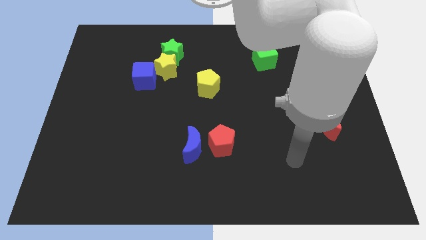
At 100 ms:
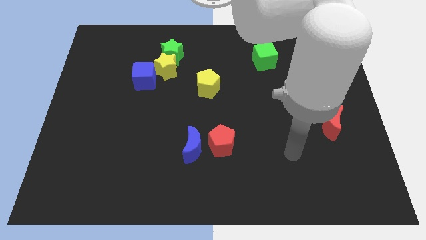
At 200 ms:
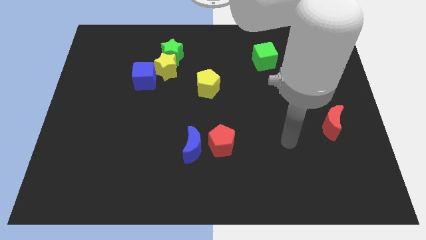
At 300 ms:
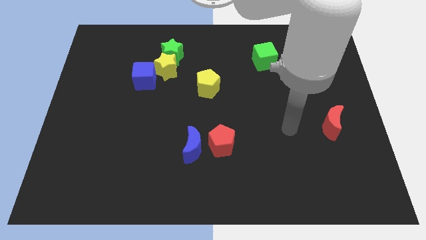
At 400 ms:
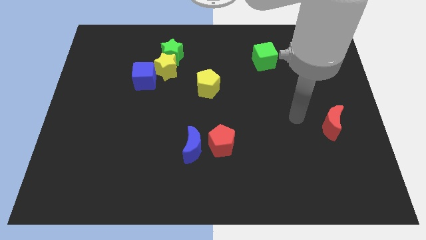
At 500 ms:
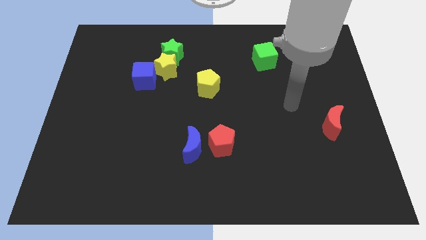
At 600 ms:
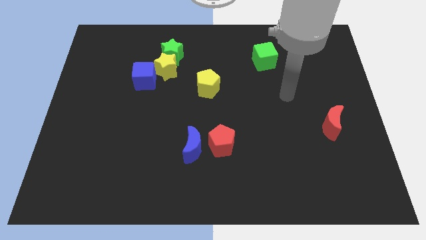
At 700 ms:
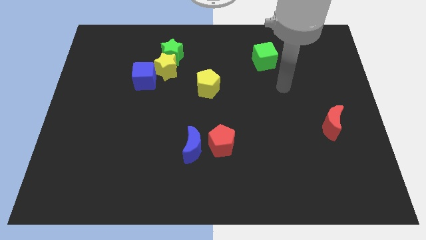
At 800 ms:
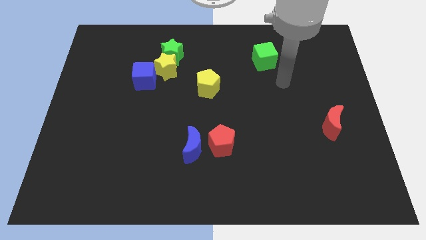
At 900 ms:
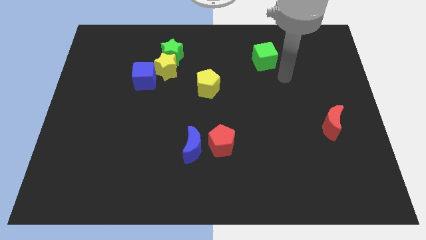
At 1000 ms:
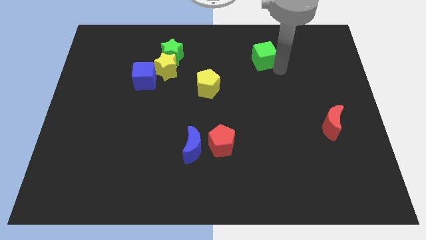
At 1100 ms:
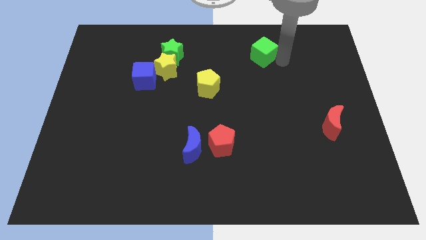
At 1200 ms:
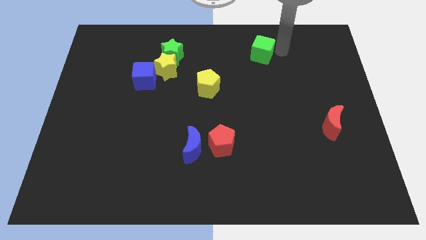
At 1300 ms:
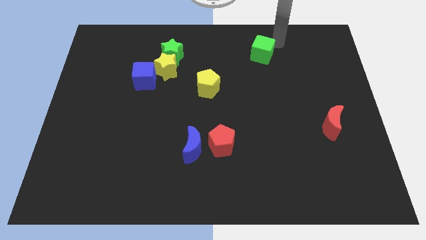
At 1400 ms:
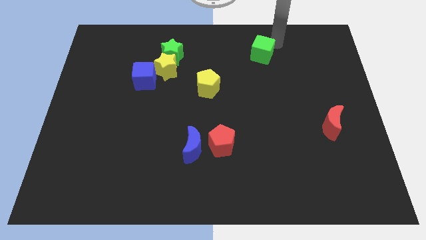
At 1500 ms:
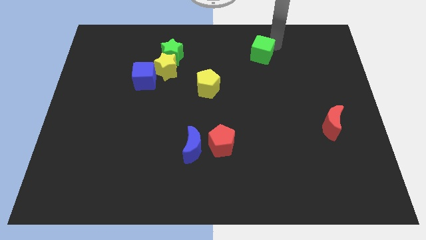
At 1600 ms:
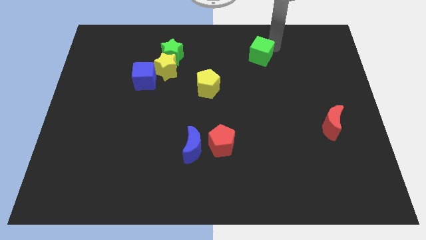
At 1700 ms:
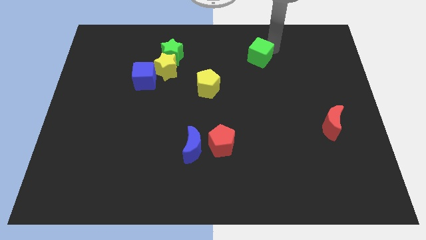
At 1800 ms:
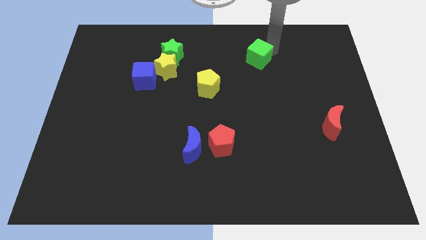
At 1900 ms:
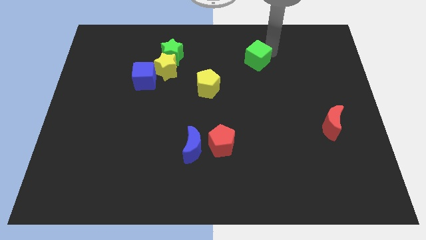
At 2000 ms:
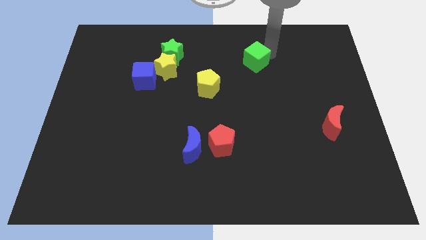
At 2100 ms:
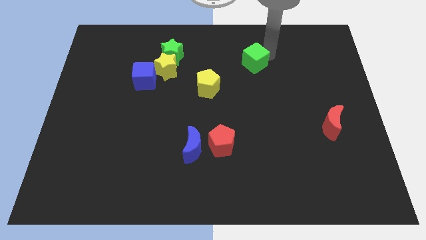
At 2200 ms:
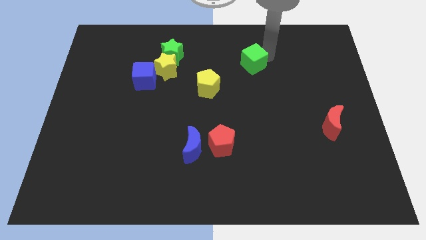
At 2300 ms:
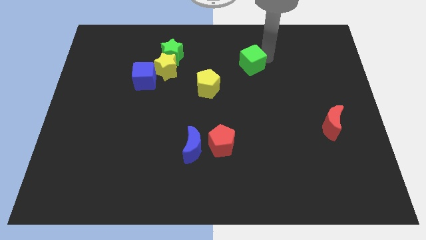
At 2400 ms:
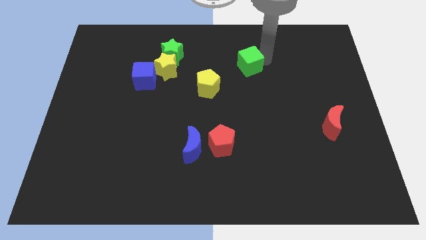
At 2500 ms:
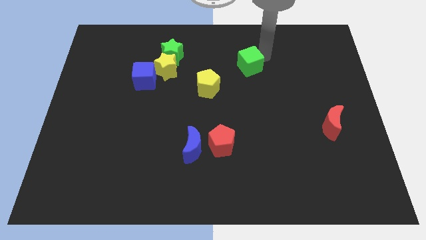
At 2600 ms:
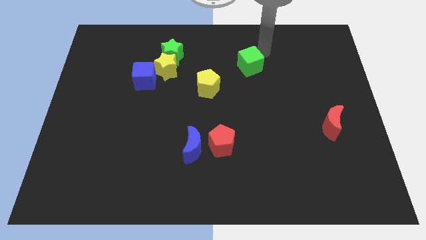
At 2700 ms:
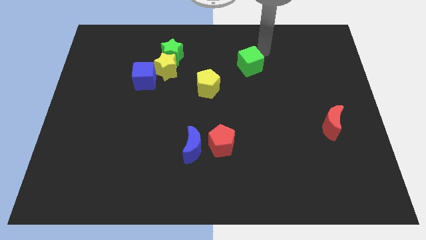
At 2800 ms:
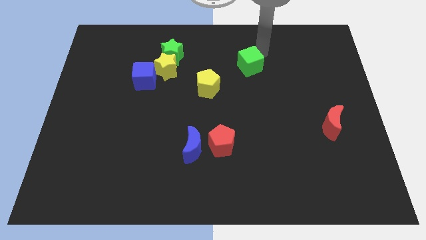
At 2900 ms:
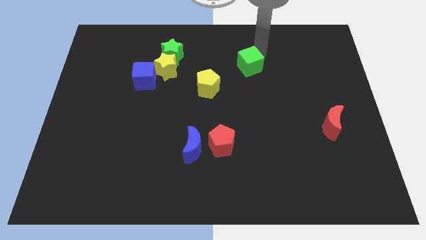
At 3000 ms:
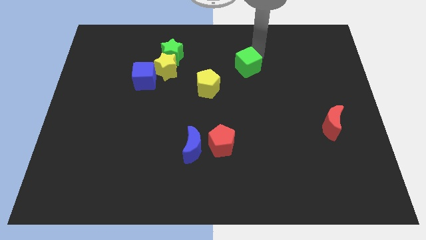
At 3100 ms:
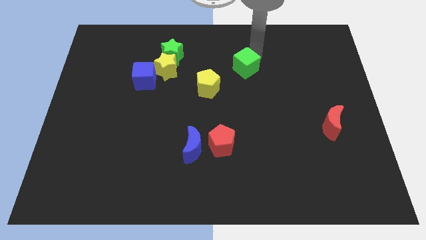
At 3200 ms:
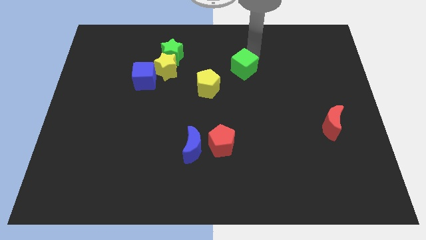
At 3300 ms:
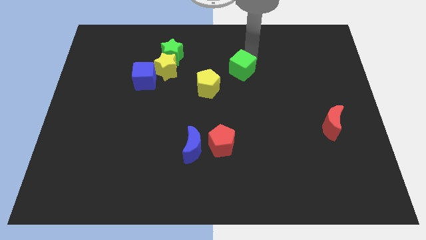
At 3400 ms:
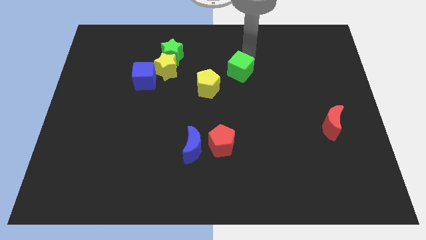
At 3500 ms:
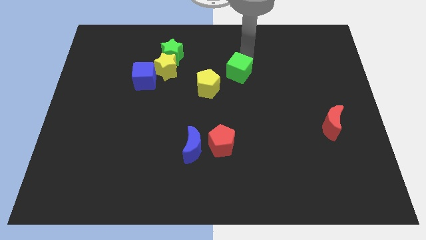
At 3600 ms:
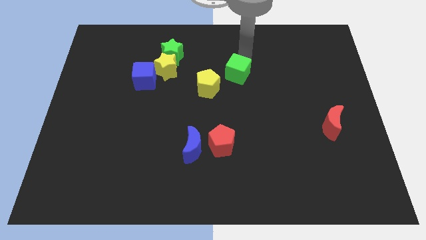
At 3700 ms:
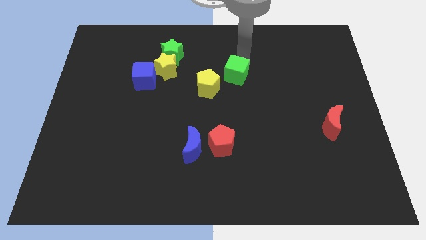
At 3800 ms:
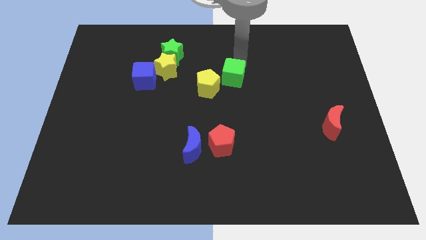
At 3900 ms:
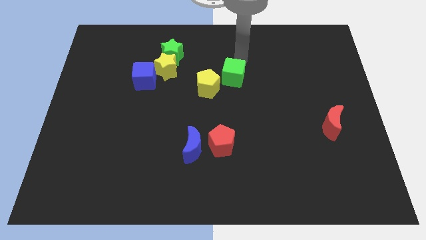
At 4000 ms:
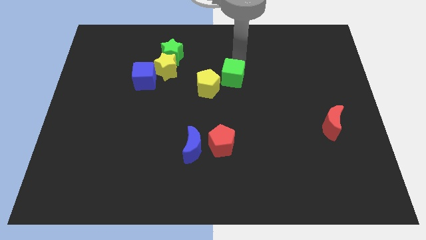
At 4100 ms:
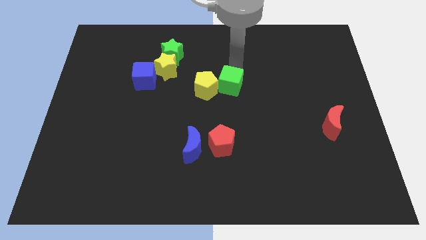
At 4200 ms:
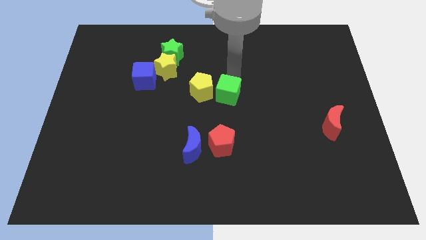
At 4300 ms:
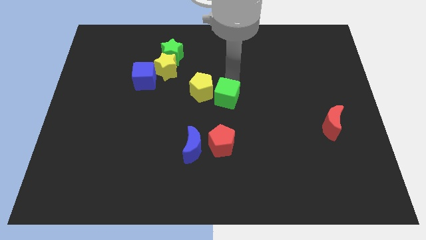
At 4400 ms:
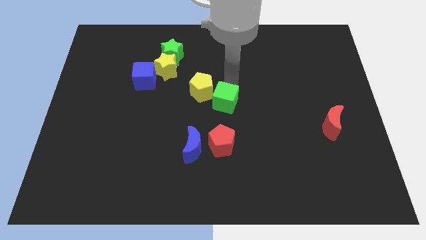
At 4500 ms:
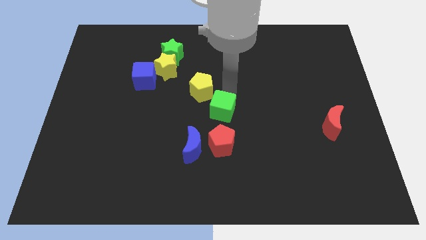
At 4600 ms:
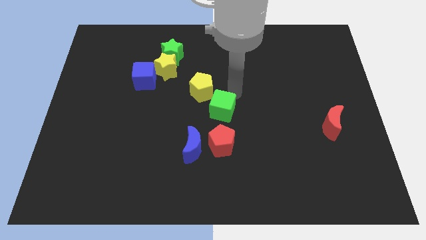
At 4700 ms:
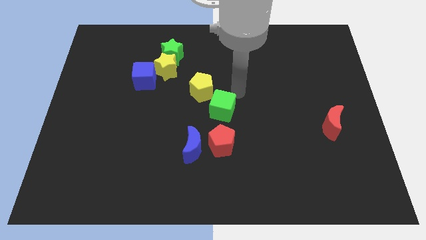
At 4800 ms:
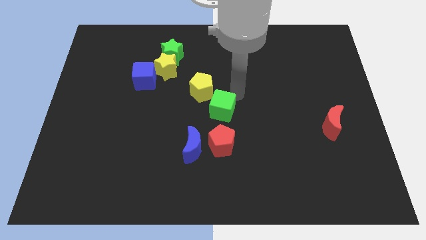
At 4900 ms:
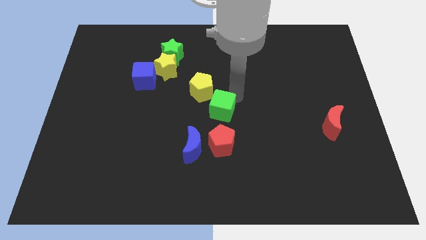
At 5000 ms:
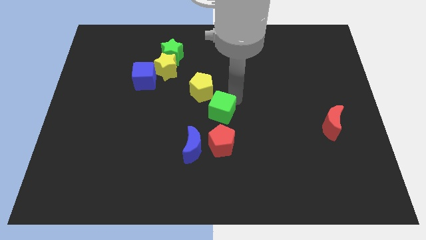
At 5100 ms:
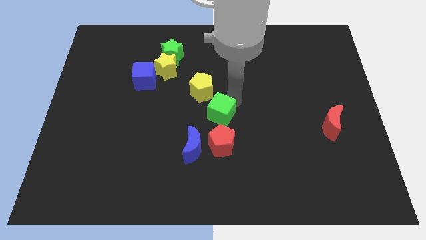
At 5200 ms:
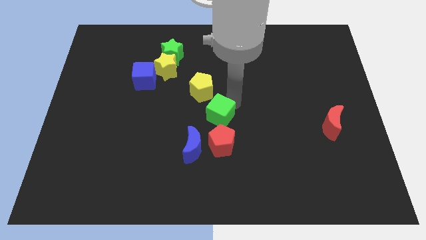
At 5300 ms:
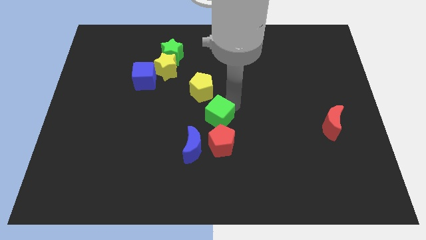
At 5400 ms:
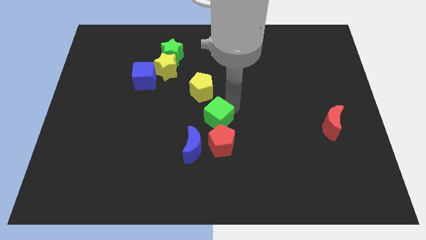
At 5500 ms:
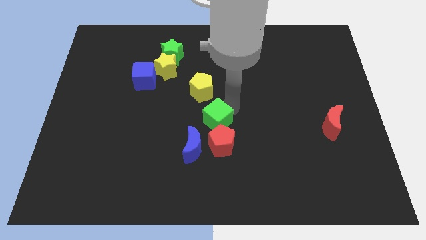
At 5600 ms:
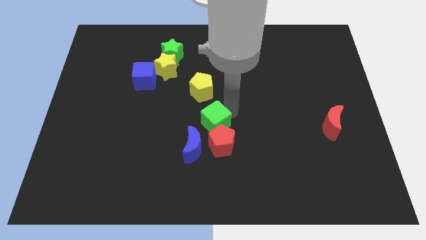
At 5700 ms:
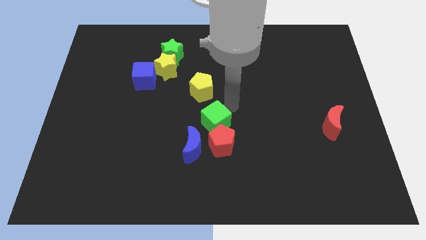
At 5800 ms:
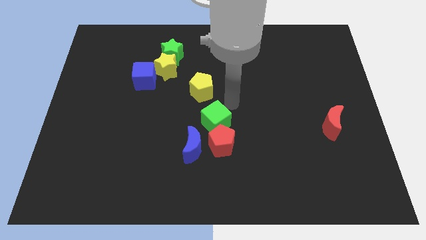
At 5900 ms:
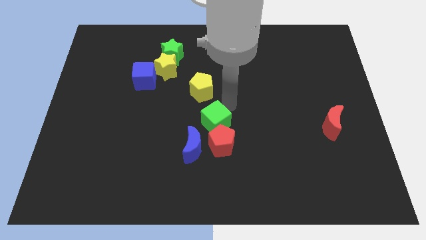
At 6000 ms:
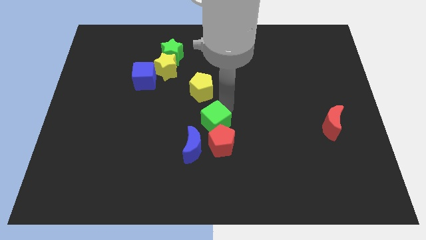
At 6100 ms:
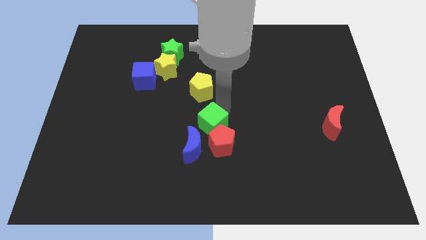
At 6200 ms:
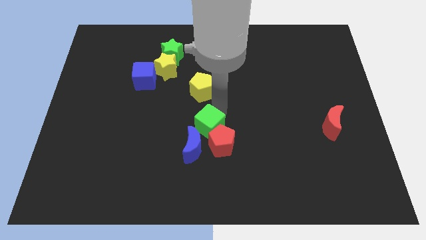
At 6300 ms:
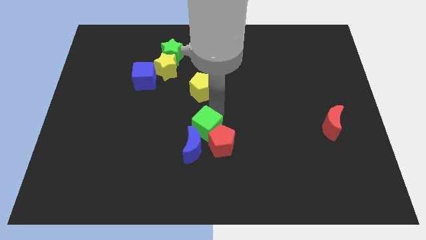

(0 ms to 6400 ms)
push the green cube to the blue moon

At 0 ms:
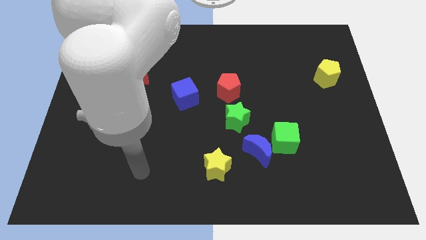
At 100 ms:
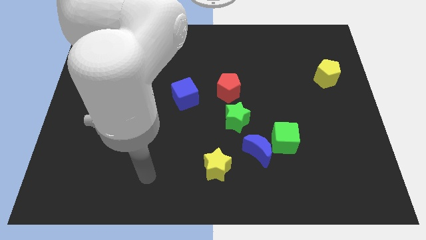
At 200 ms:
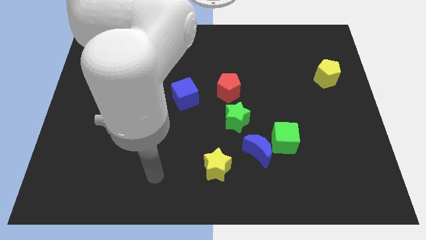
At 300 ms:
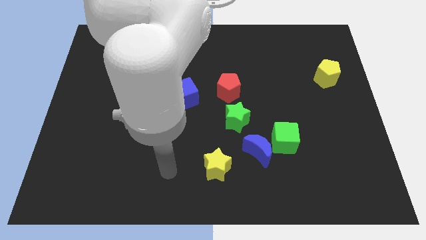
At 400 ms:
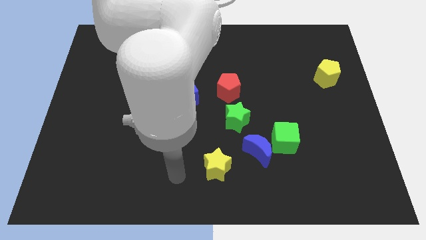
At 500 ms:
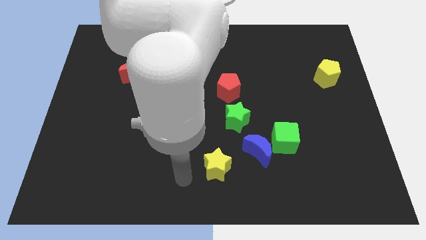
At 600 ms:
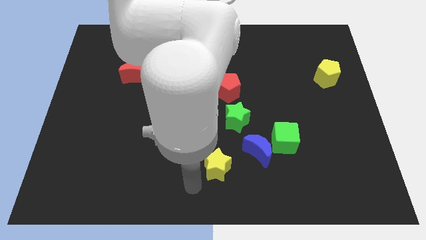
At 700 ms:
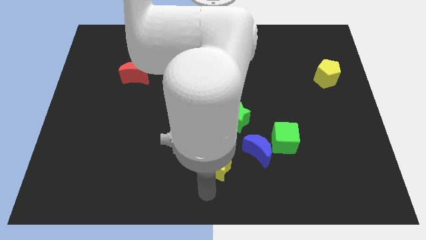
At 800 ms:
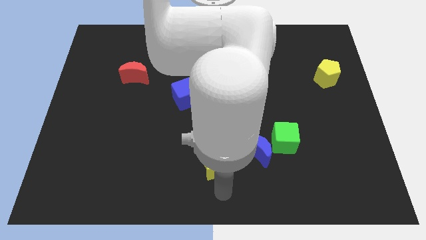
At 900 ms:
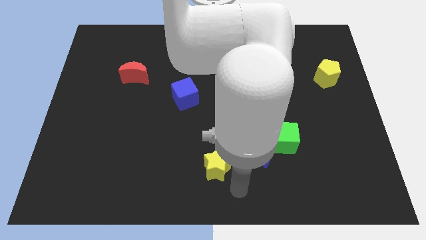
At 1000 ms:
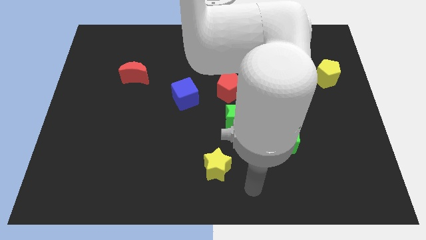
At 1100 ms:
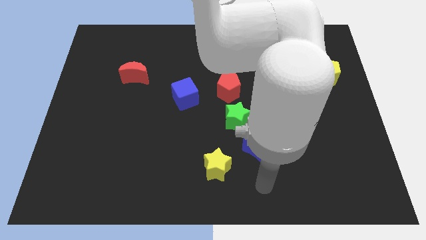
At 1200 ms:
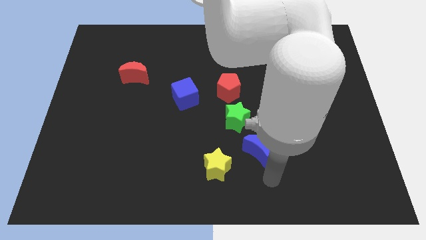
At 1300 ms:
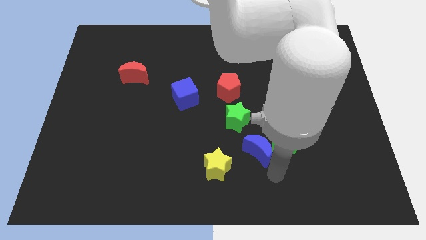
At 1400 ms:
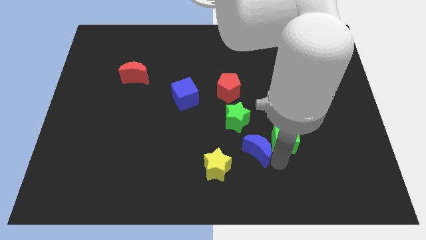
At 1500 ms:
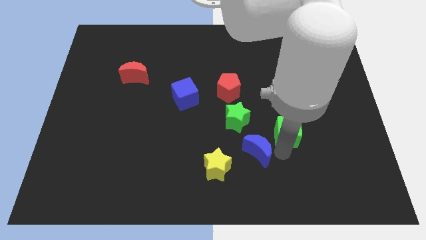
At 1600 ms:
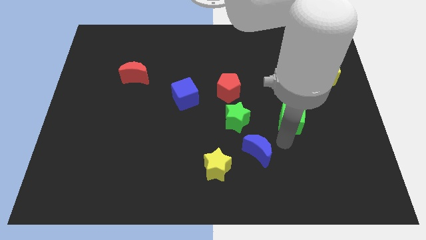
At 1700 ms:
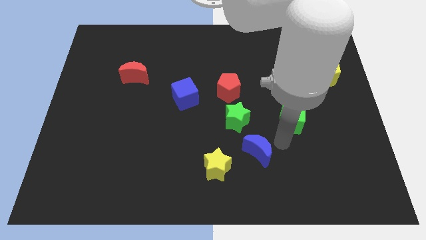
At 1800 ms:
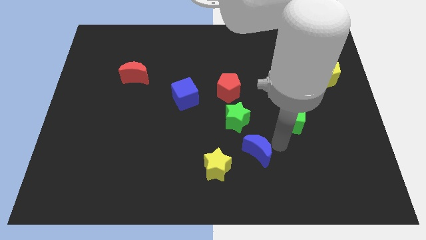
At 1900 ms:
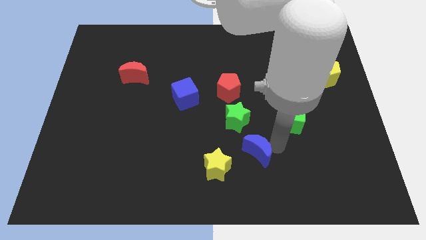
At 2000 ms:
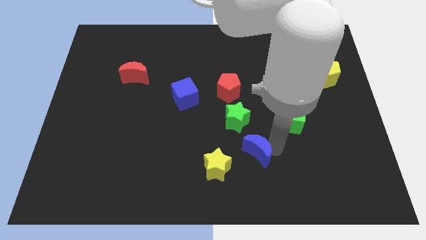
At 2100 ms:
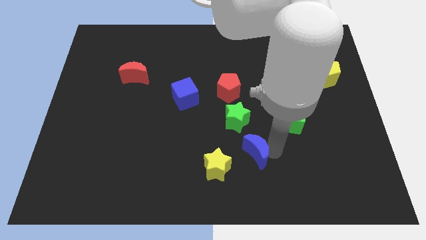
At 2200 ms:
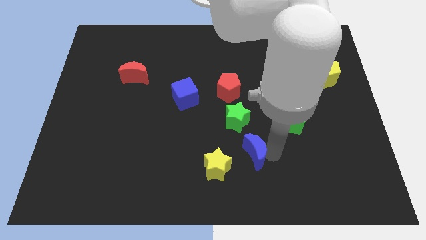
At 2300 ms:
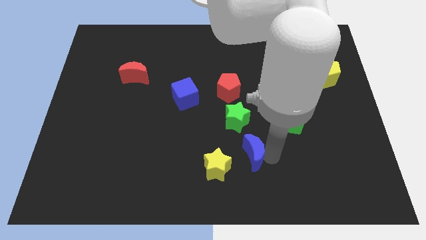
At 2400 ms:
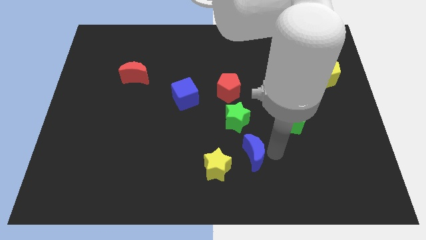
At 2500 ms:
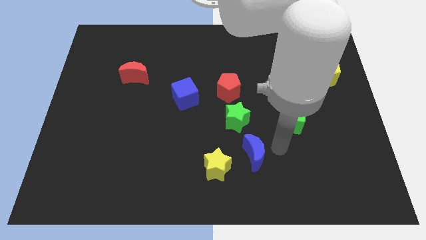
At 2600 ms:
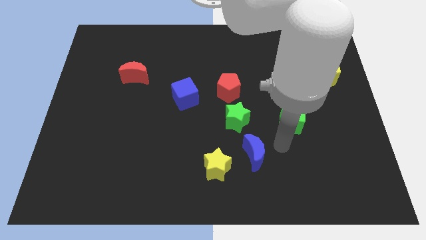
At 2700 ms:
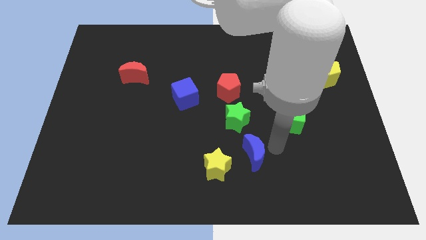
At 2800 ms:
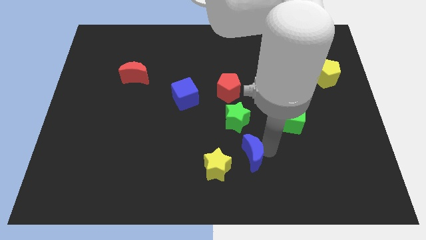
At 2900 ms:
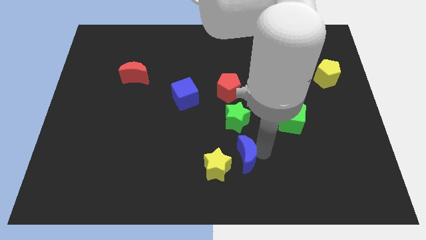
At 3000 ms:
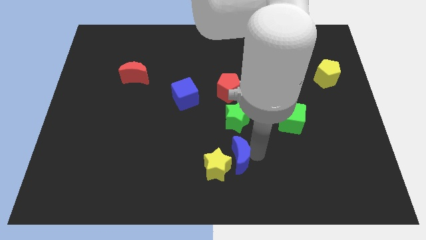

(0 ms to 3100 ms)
push the blue moon towards the yellow star
